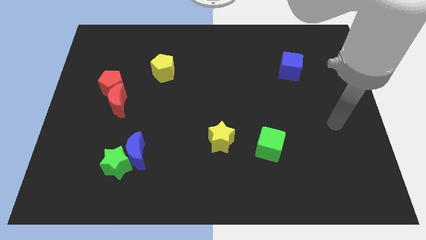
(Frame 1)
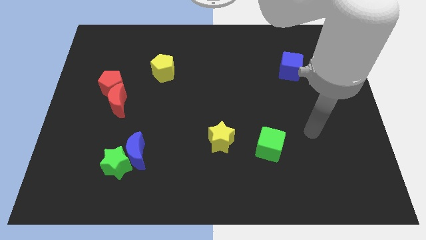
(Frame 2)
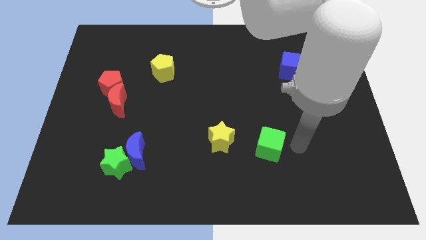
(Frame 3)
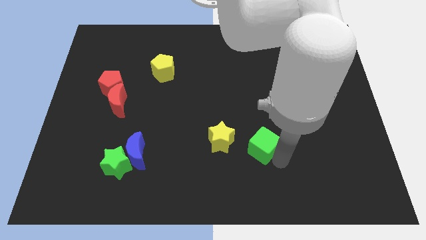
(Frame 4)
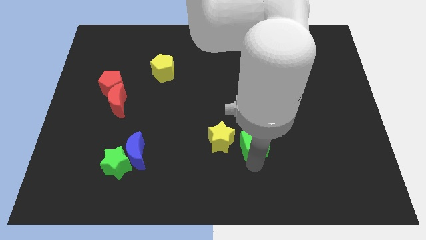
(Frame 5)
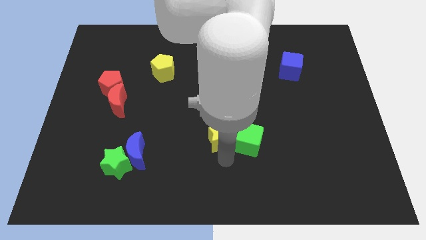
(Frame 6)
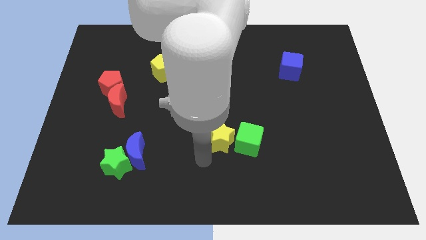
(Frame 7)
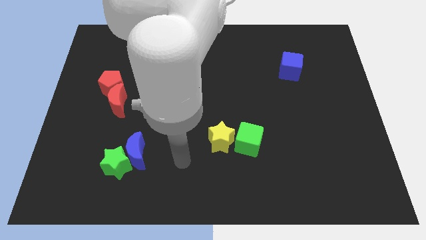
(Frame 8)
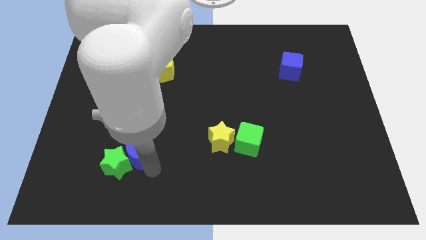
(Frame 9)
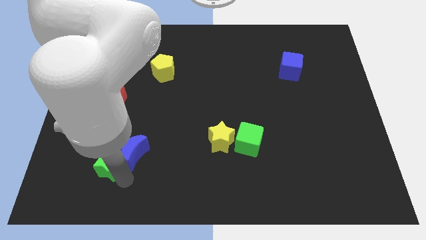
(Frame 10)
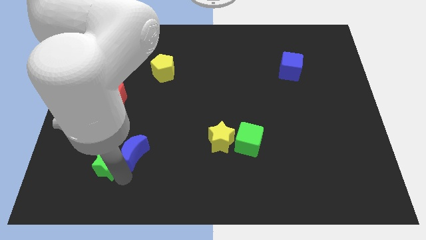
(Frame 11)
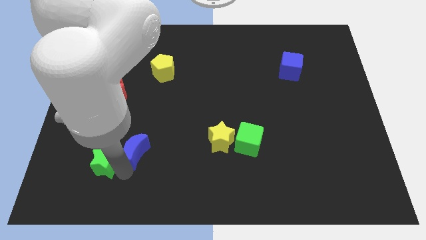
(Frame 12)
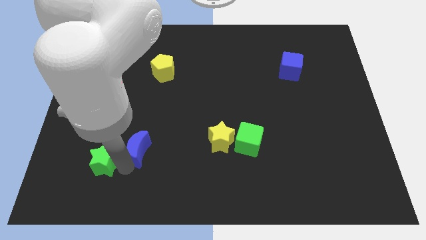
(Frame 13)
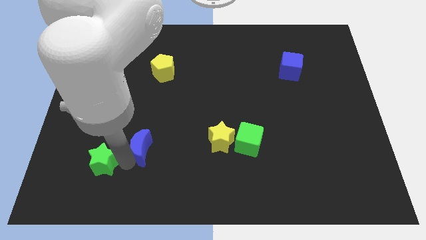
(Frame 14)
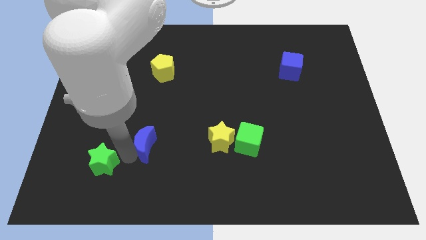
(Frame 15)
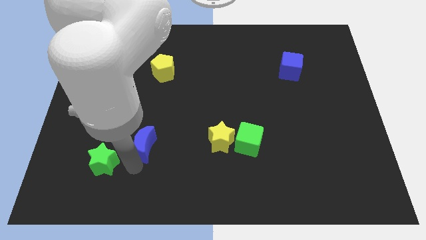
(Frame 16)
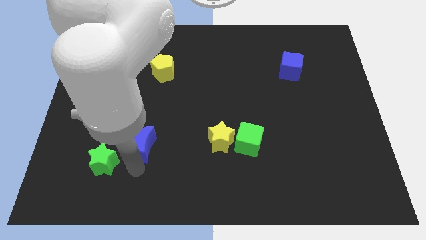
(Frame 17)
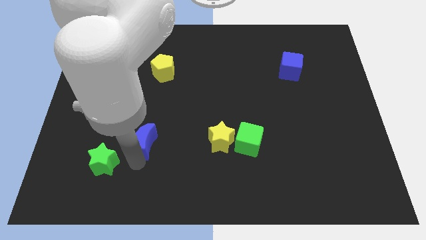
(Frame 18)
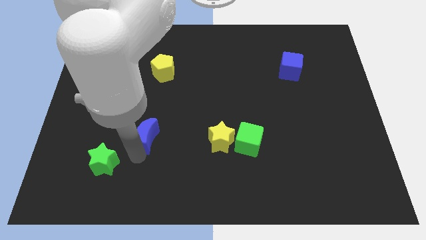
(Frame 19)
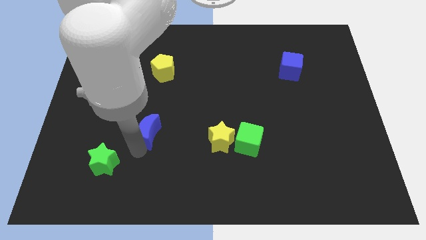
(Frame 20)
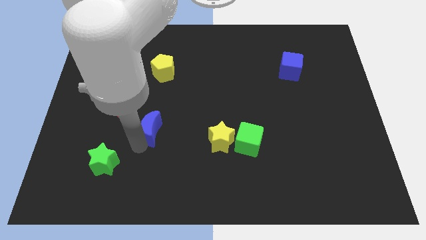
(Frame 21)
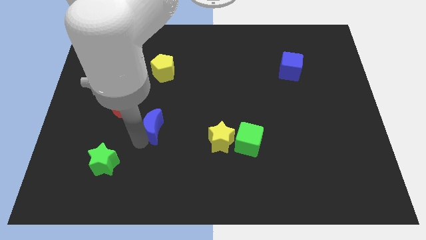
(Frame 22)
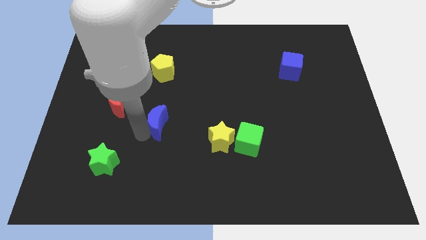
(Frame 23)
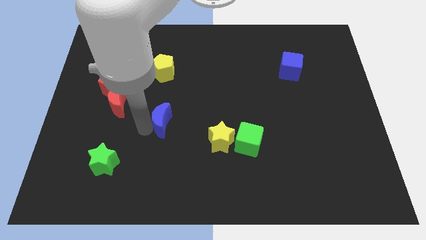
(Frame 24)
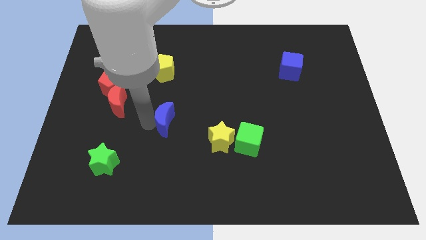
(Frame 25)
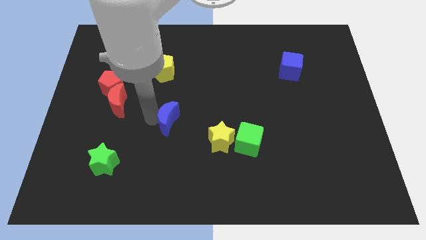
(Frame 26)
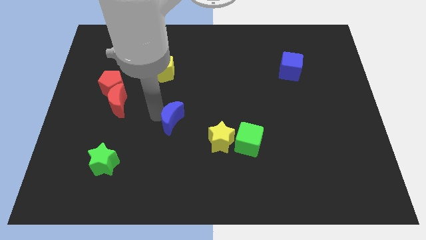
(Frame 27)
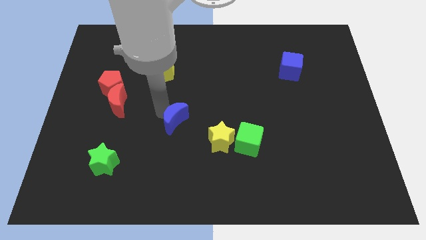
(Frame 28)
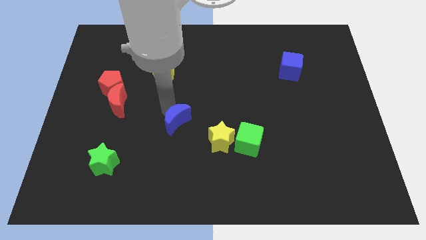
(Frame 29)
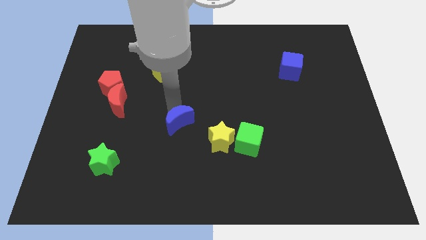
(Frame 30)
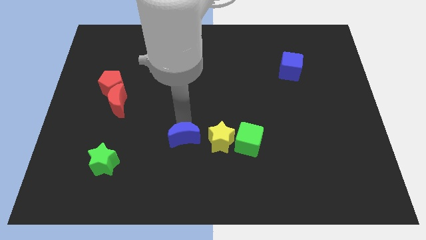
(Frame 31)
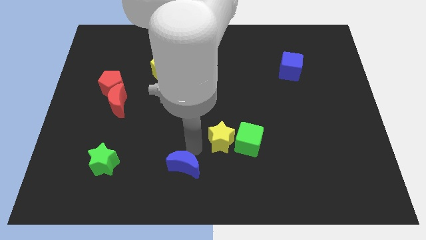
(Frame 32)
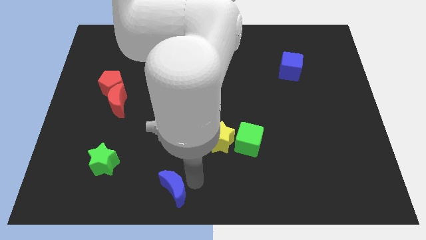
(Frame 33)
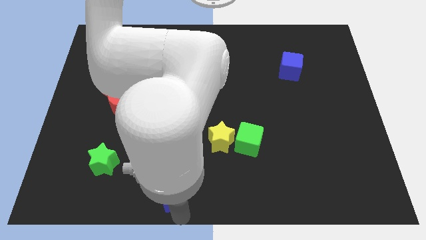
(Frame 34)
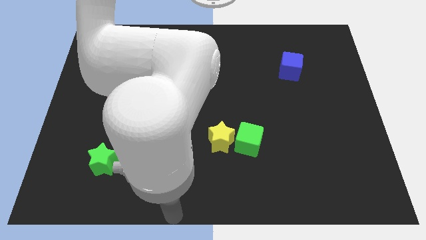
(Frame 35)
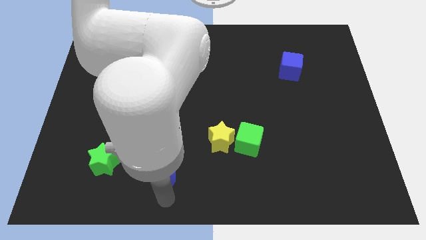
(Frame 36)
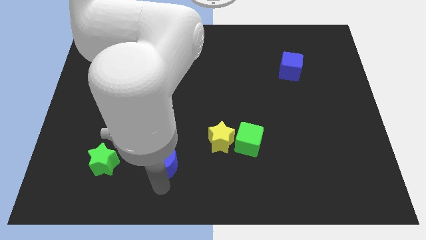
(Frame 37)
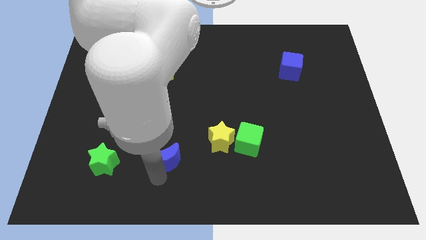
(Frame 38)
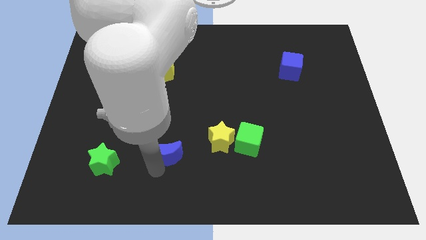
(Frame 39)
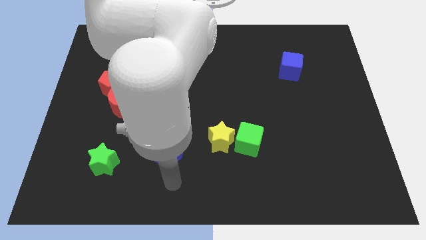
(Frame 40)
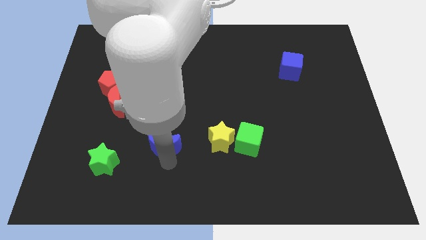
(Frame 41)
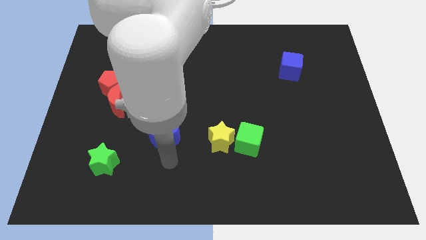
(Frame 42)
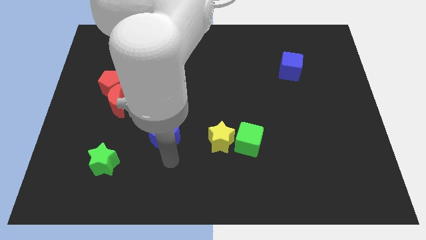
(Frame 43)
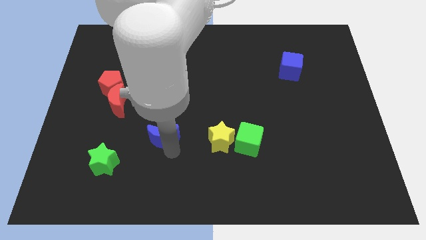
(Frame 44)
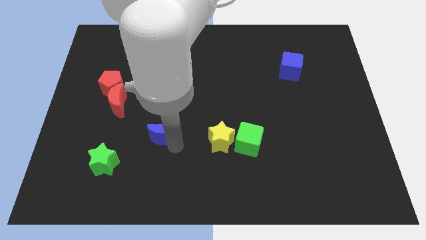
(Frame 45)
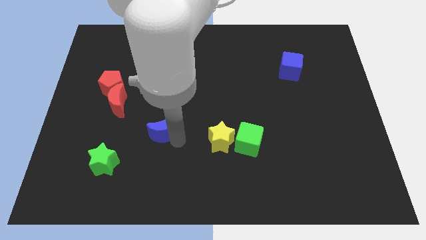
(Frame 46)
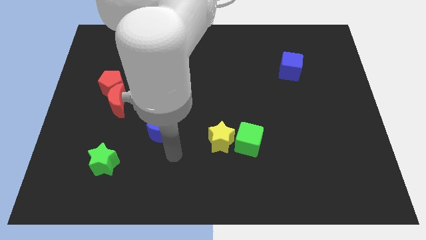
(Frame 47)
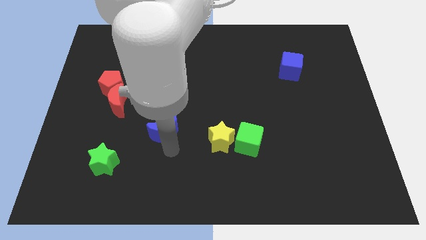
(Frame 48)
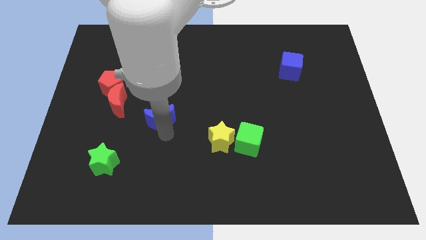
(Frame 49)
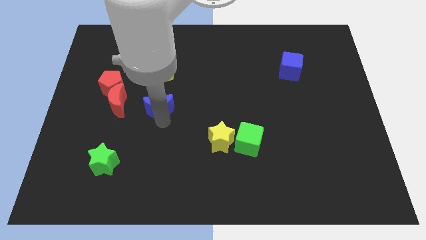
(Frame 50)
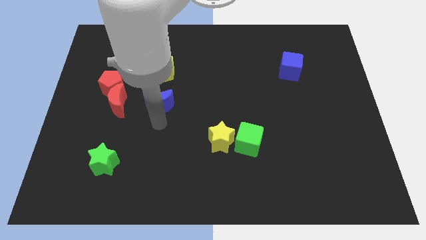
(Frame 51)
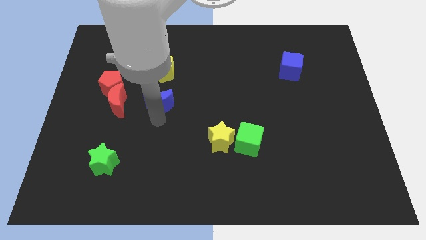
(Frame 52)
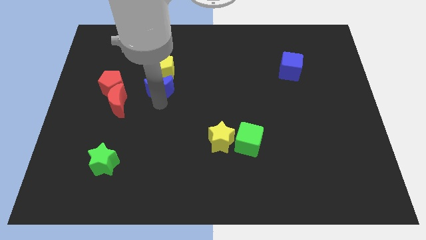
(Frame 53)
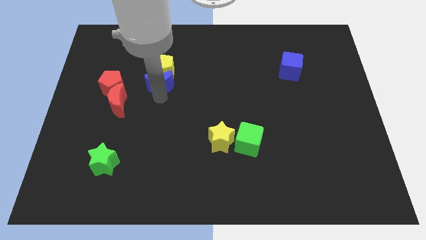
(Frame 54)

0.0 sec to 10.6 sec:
move the blue moon towards the yellow pentagon

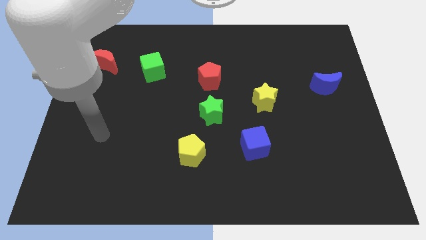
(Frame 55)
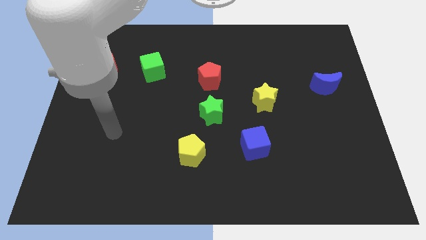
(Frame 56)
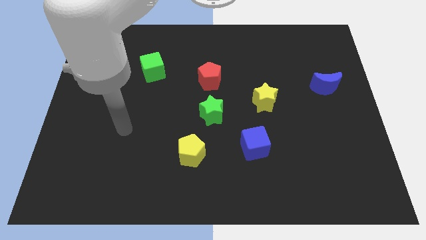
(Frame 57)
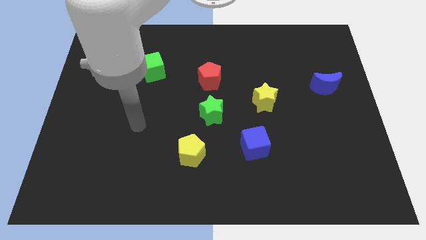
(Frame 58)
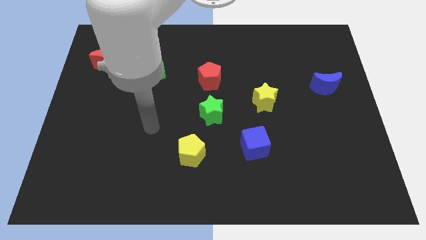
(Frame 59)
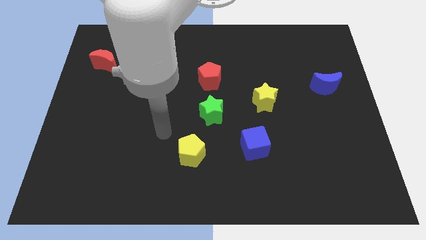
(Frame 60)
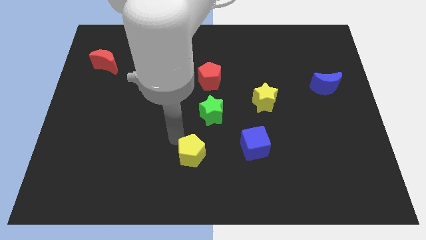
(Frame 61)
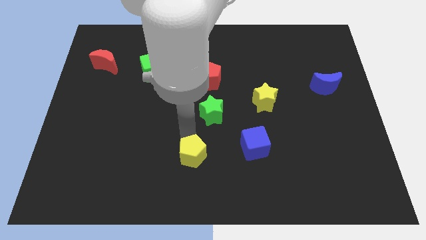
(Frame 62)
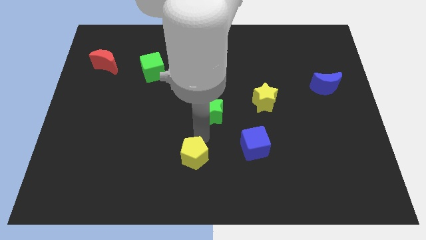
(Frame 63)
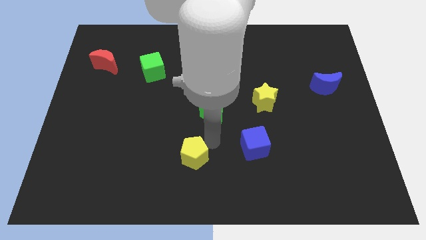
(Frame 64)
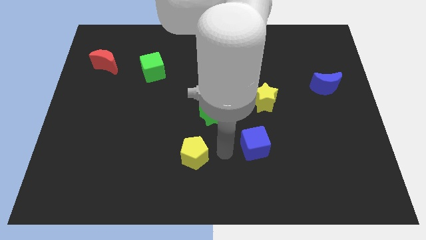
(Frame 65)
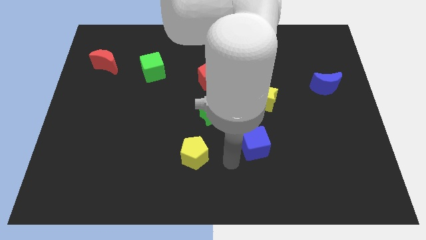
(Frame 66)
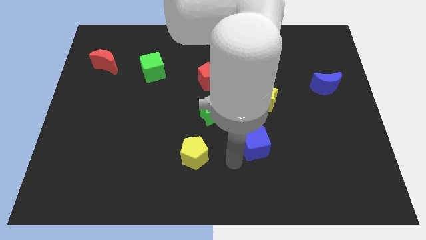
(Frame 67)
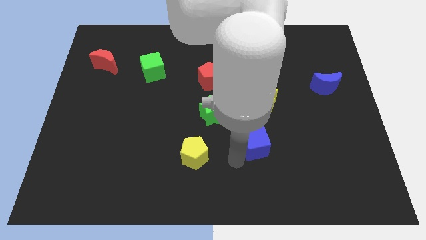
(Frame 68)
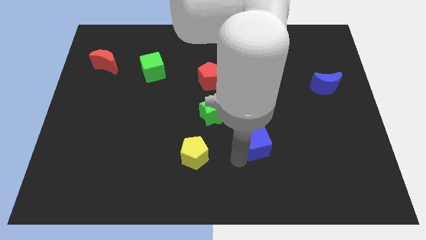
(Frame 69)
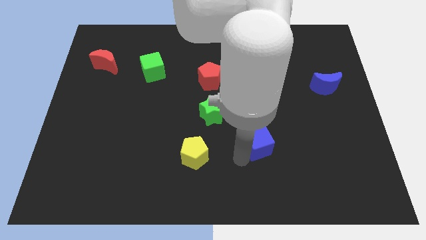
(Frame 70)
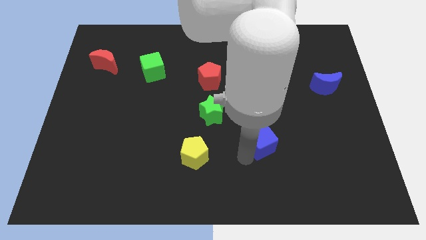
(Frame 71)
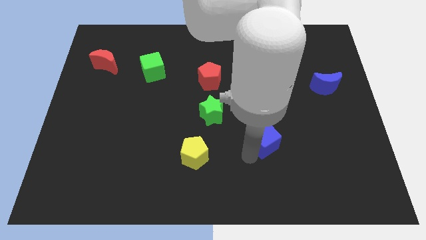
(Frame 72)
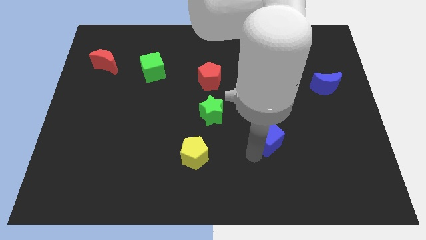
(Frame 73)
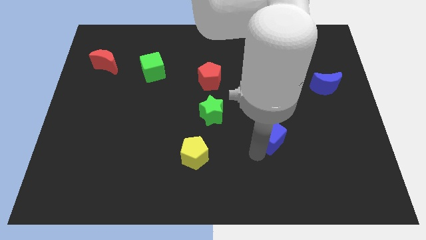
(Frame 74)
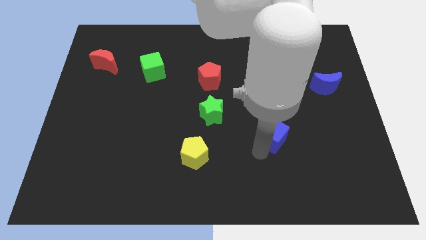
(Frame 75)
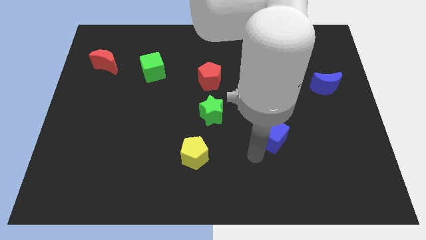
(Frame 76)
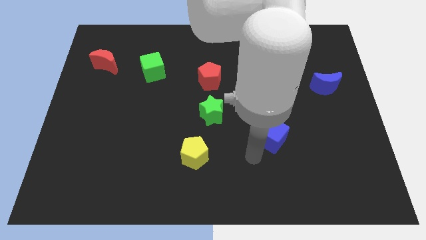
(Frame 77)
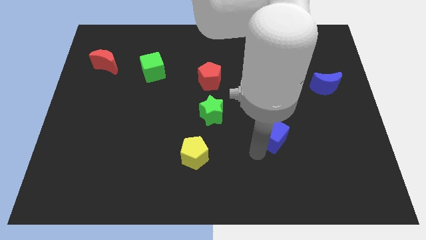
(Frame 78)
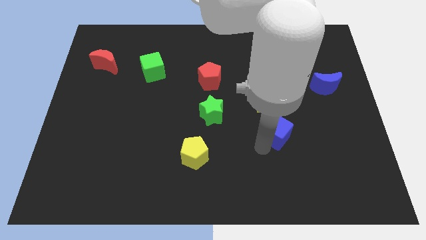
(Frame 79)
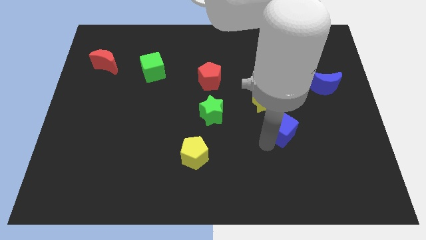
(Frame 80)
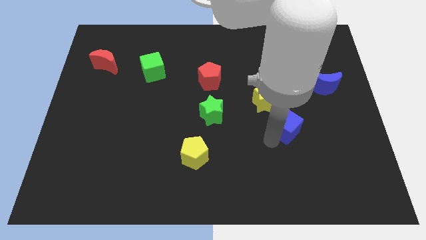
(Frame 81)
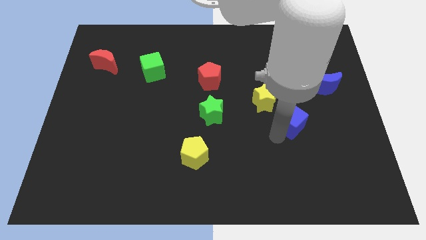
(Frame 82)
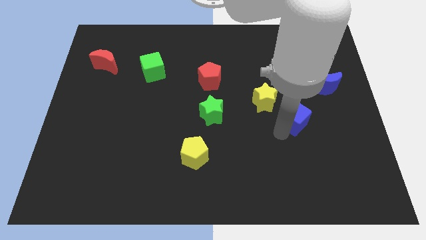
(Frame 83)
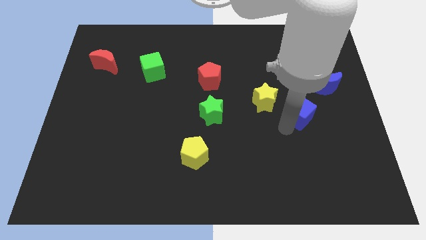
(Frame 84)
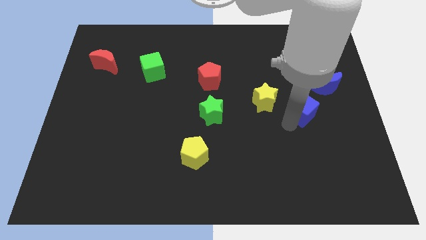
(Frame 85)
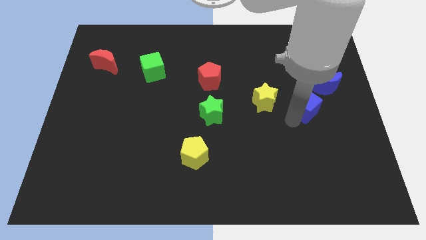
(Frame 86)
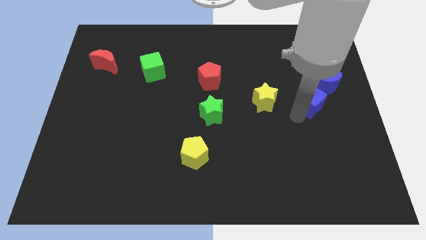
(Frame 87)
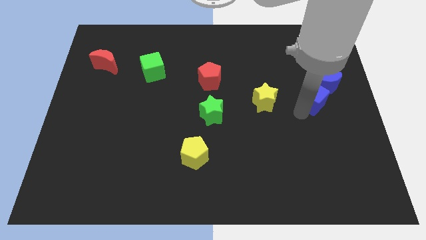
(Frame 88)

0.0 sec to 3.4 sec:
put the blue cube to the blue moon
